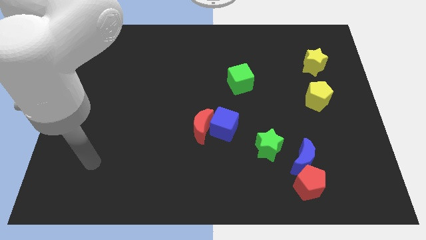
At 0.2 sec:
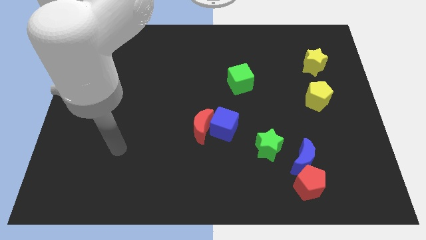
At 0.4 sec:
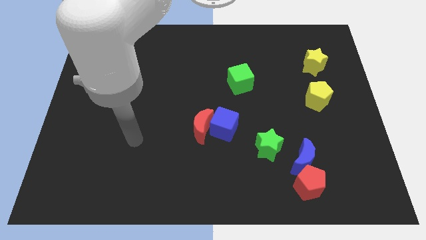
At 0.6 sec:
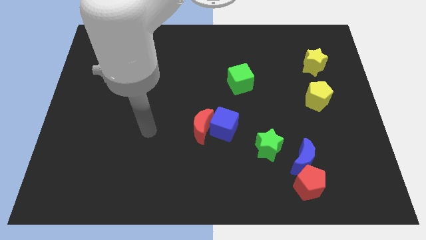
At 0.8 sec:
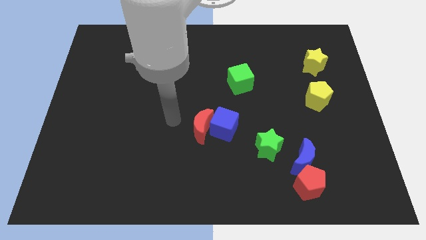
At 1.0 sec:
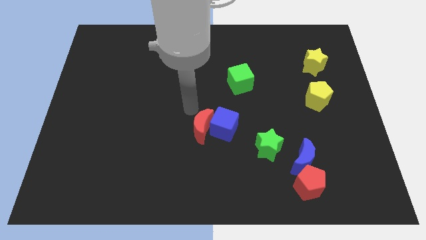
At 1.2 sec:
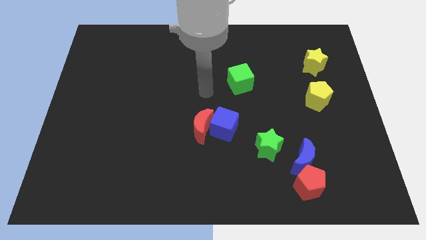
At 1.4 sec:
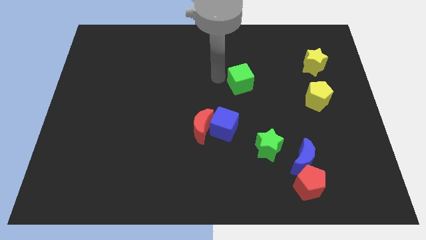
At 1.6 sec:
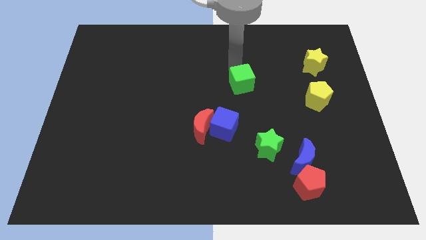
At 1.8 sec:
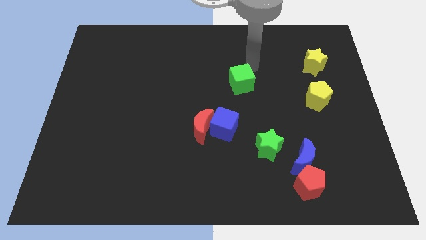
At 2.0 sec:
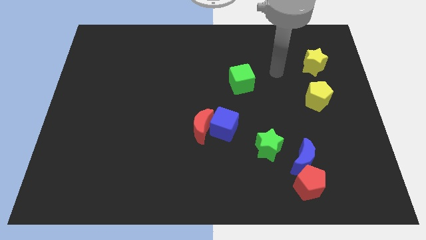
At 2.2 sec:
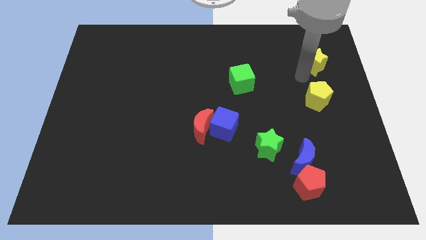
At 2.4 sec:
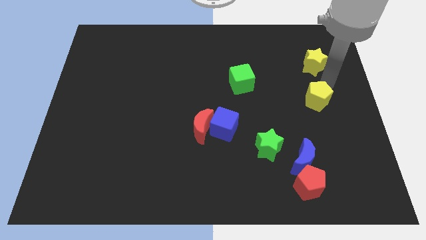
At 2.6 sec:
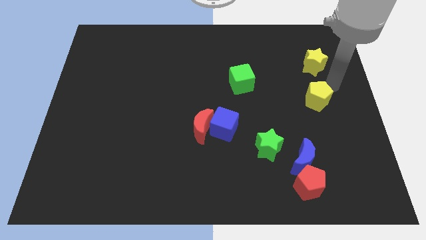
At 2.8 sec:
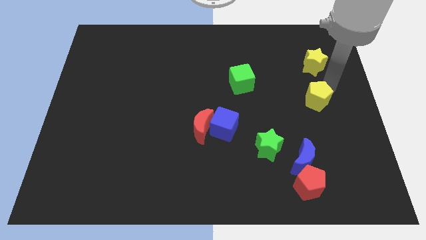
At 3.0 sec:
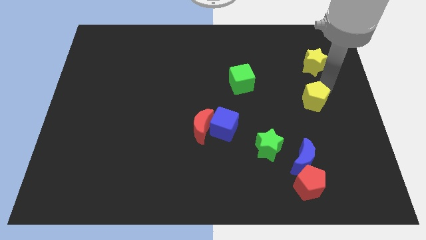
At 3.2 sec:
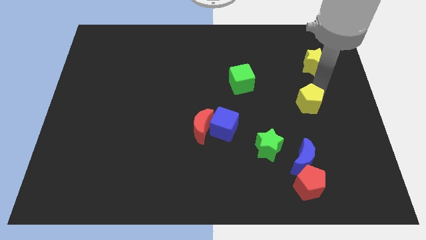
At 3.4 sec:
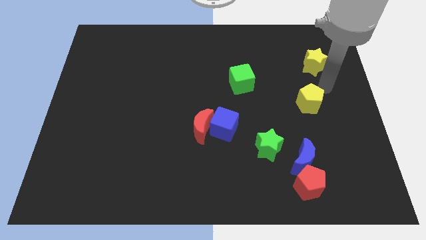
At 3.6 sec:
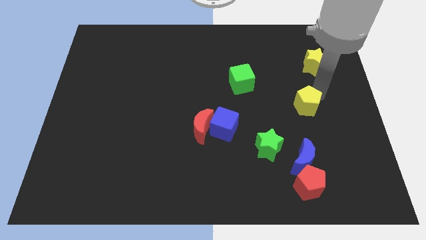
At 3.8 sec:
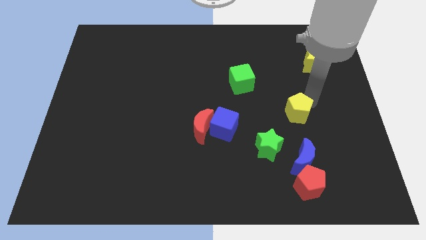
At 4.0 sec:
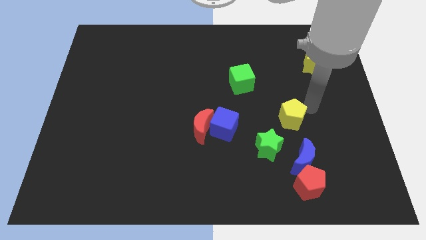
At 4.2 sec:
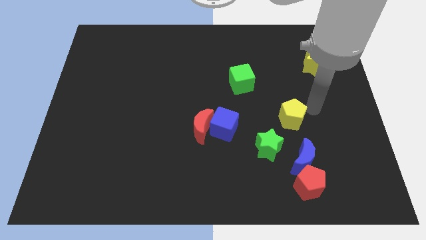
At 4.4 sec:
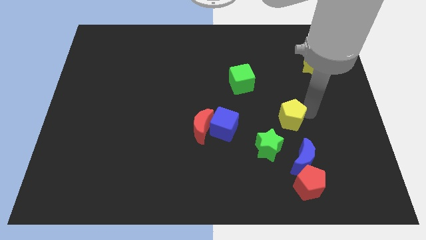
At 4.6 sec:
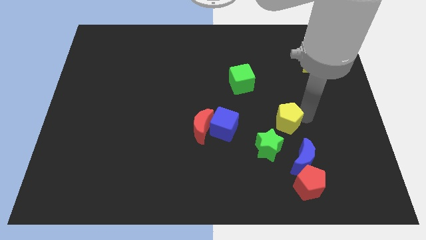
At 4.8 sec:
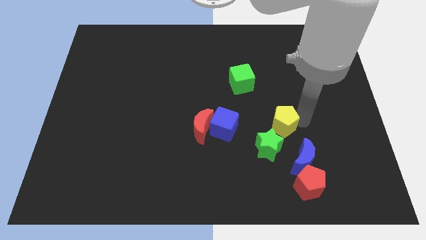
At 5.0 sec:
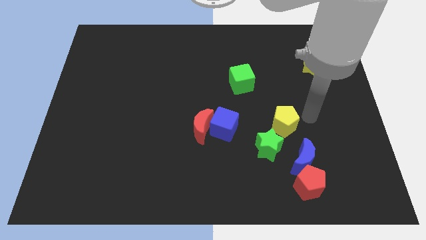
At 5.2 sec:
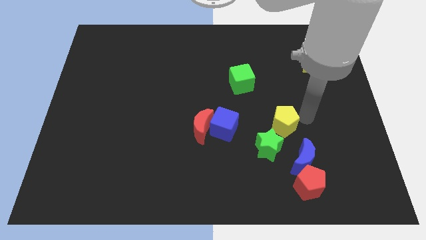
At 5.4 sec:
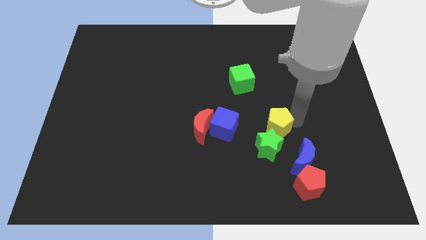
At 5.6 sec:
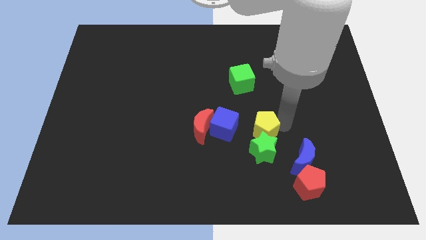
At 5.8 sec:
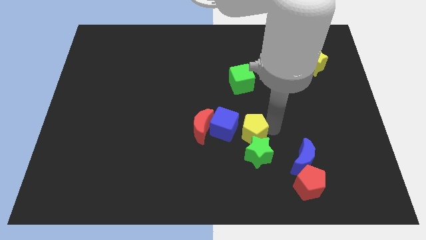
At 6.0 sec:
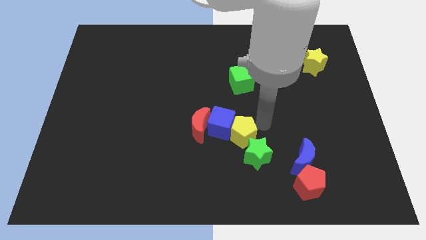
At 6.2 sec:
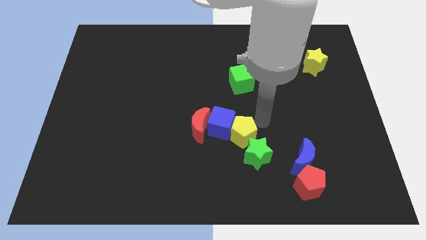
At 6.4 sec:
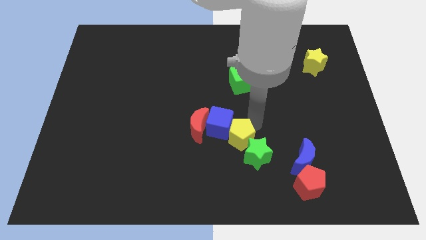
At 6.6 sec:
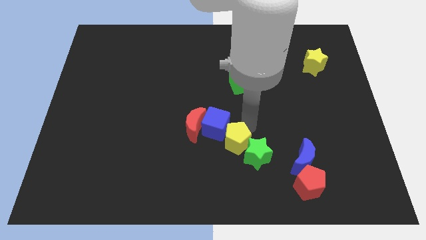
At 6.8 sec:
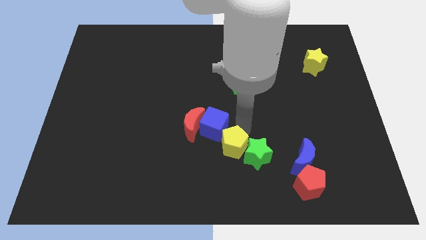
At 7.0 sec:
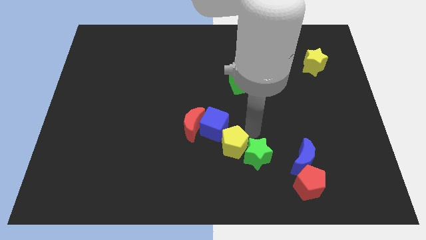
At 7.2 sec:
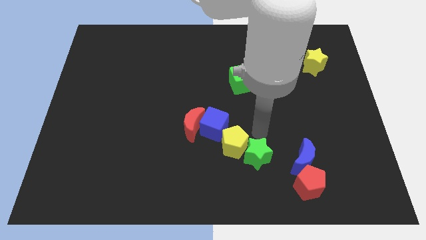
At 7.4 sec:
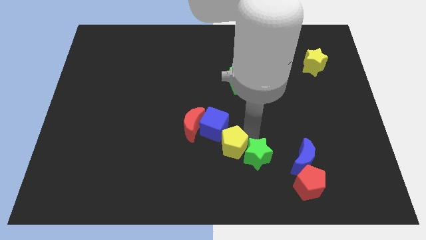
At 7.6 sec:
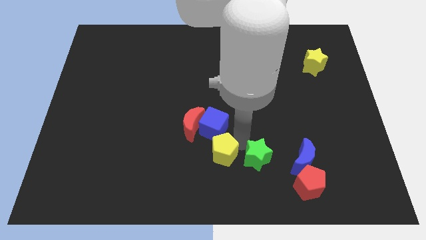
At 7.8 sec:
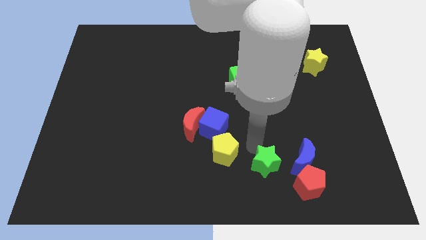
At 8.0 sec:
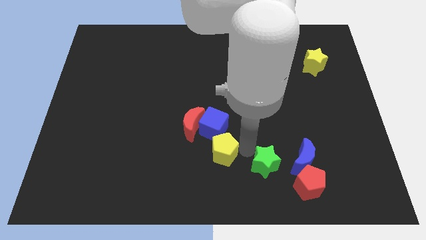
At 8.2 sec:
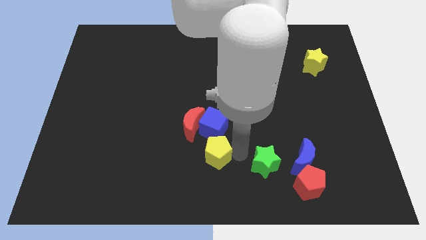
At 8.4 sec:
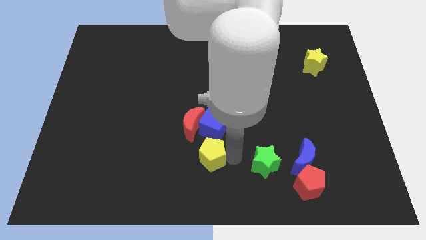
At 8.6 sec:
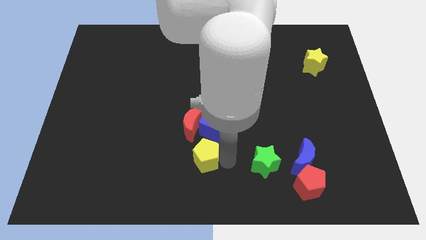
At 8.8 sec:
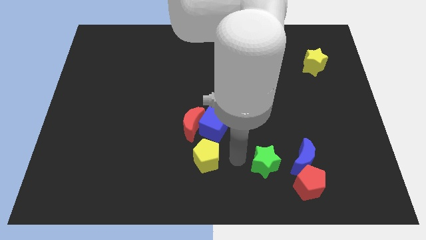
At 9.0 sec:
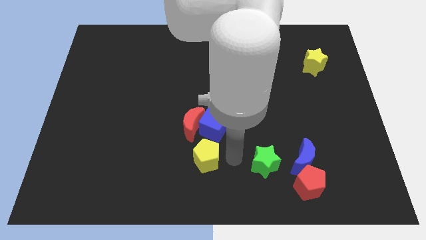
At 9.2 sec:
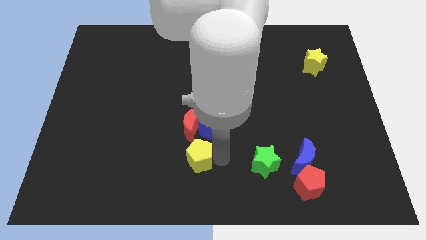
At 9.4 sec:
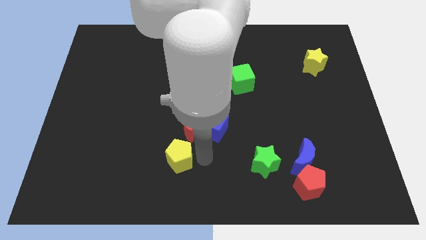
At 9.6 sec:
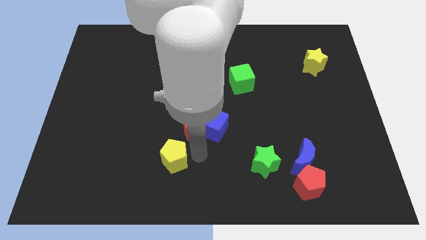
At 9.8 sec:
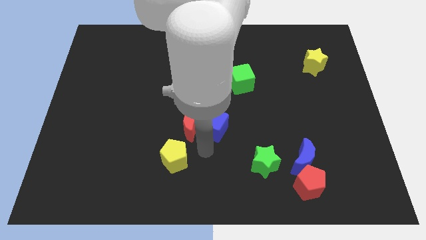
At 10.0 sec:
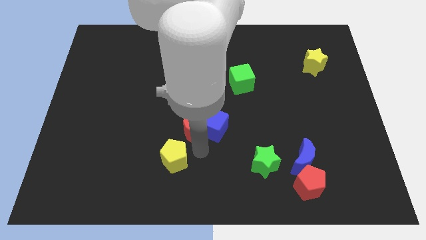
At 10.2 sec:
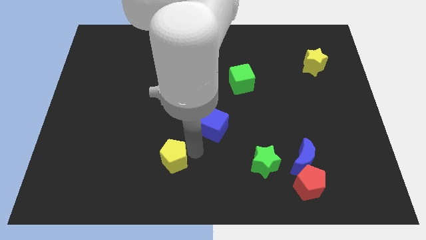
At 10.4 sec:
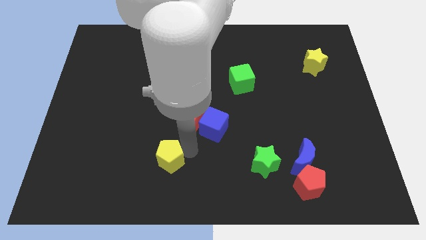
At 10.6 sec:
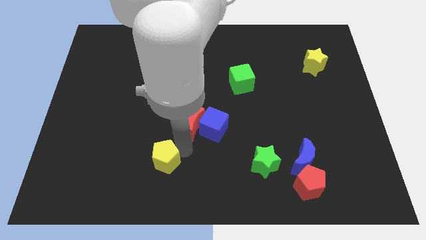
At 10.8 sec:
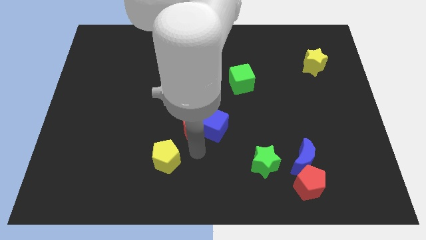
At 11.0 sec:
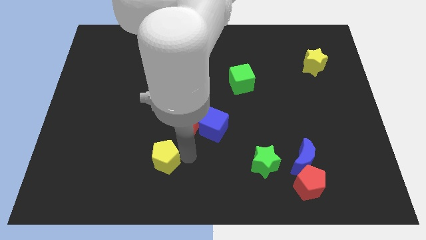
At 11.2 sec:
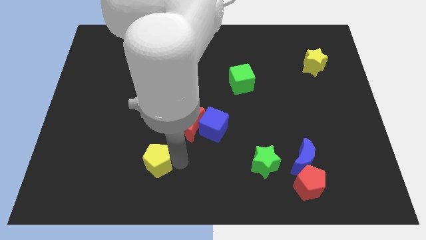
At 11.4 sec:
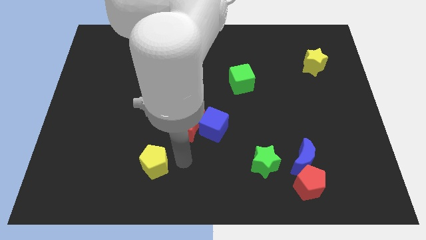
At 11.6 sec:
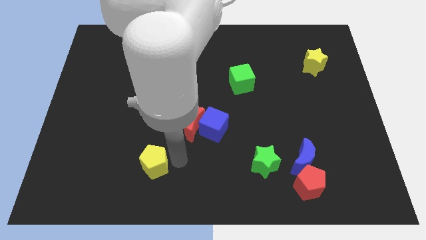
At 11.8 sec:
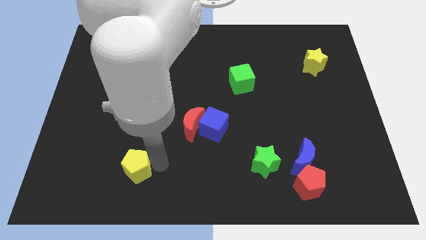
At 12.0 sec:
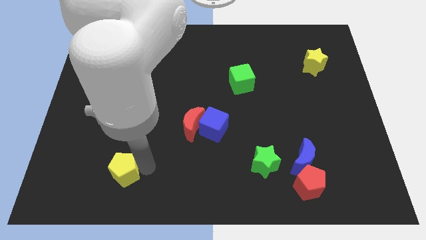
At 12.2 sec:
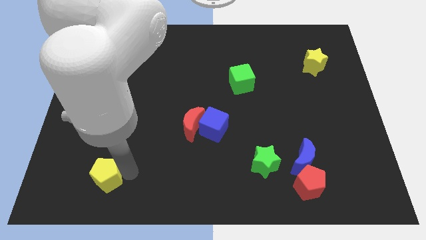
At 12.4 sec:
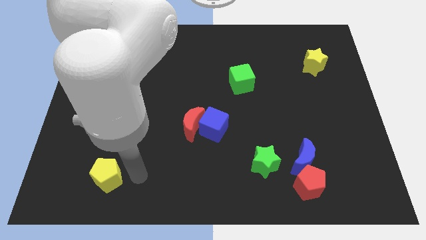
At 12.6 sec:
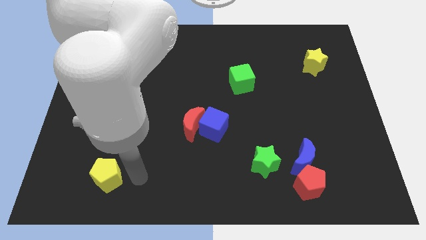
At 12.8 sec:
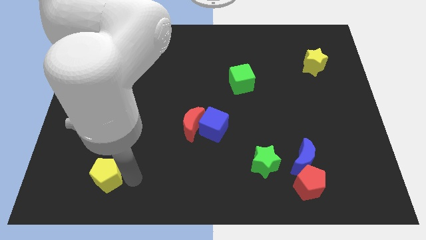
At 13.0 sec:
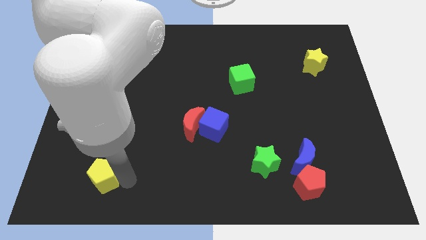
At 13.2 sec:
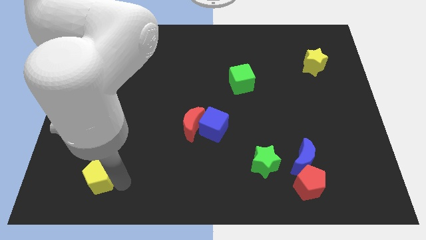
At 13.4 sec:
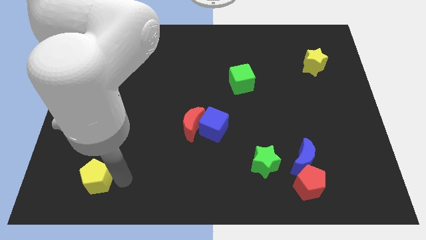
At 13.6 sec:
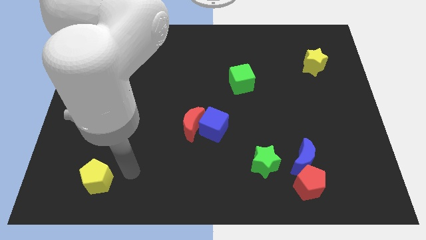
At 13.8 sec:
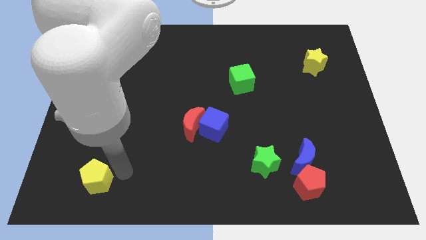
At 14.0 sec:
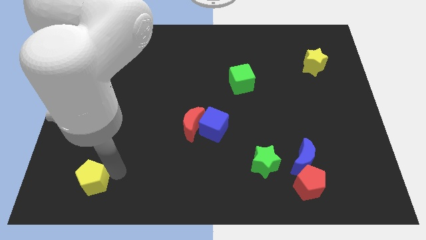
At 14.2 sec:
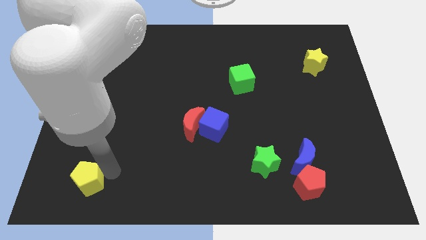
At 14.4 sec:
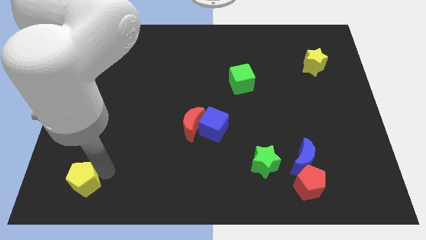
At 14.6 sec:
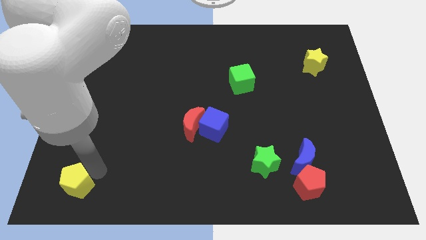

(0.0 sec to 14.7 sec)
push the yellow pentagon to the bottom left
